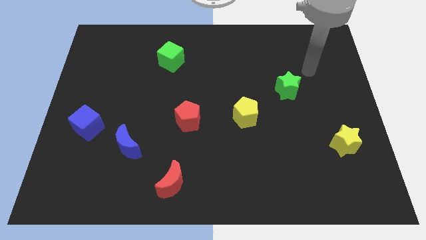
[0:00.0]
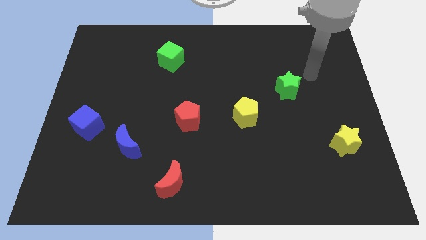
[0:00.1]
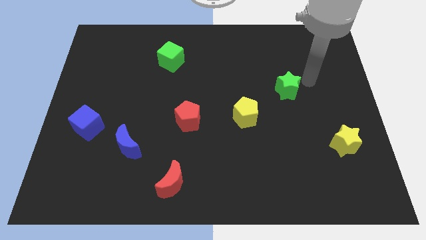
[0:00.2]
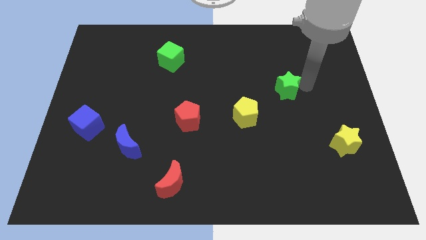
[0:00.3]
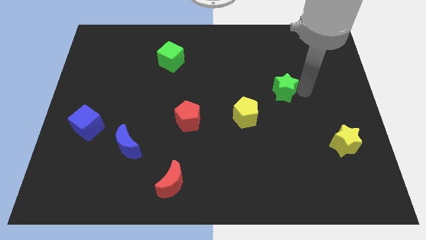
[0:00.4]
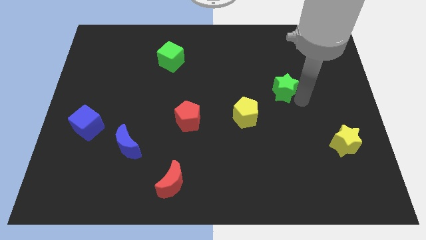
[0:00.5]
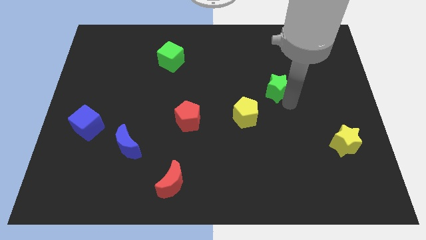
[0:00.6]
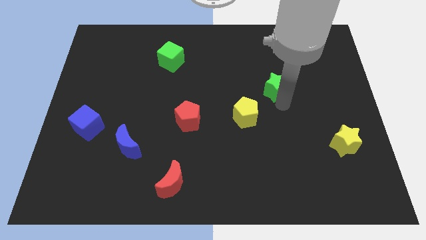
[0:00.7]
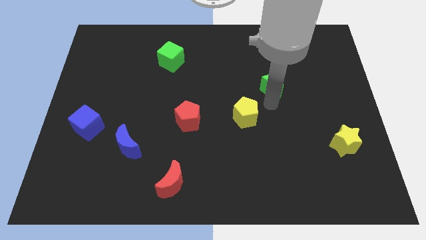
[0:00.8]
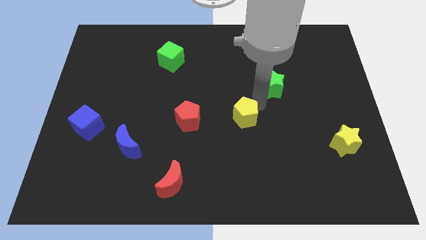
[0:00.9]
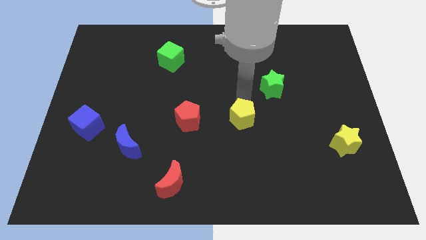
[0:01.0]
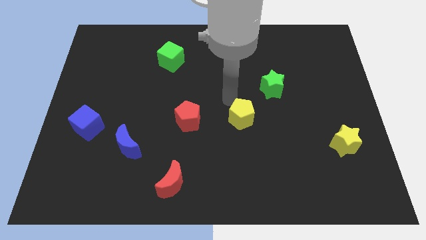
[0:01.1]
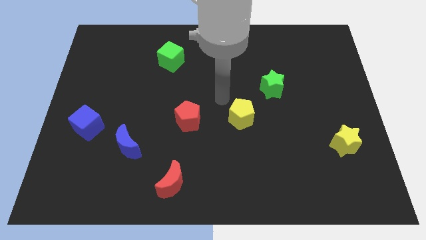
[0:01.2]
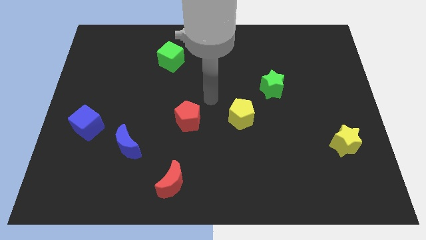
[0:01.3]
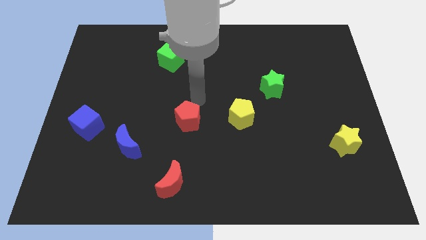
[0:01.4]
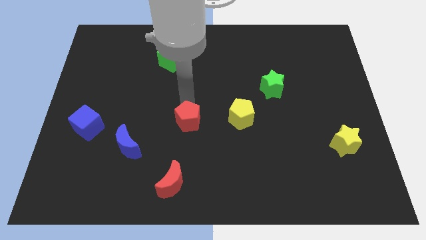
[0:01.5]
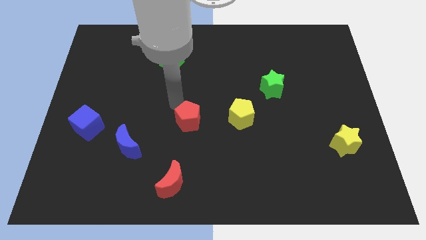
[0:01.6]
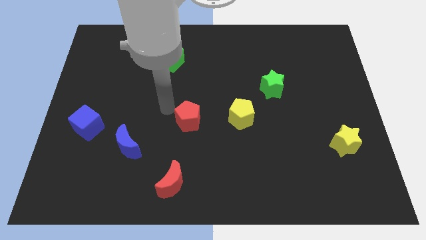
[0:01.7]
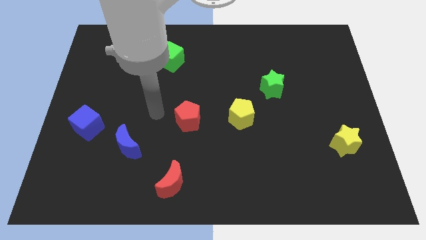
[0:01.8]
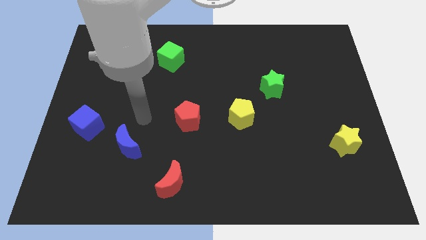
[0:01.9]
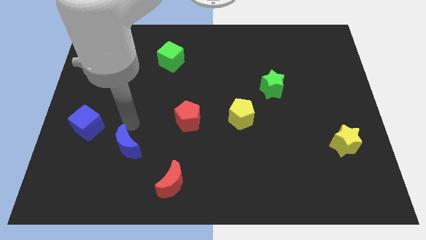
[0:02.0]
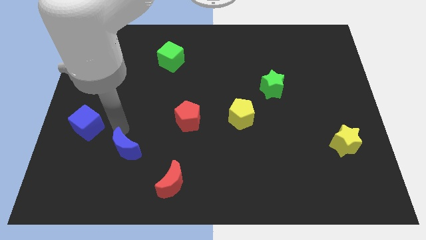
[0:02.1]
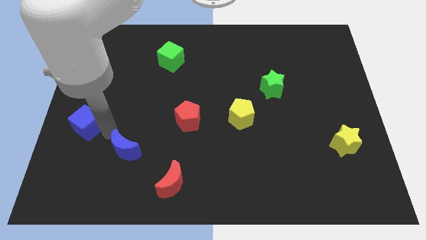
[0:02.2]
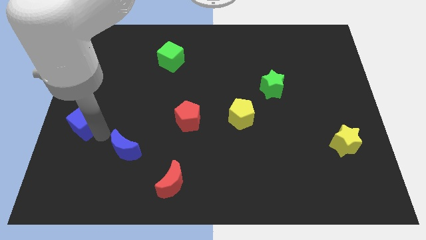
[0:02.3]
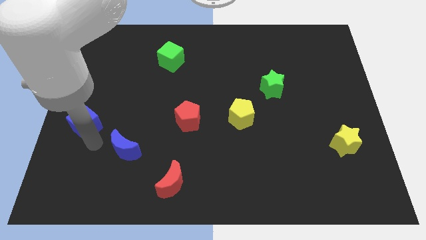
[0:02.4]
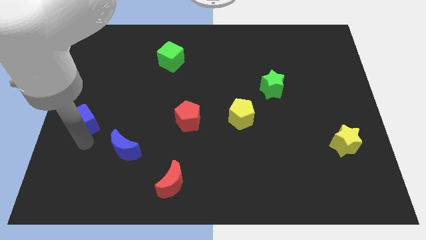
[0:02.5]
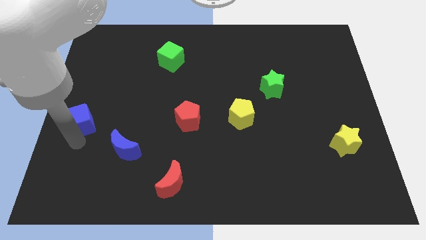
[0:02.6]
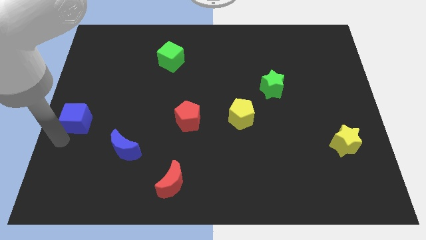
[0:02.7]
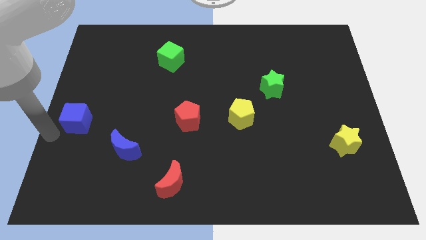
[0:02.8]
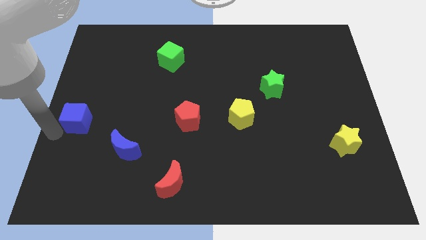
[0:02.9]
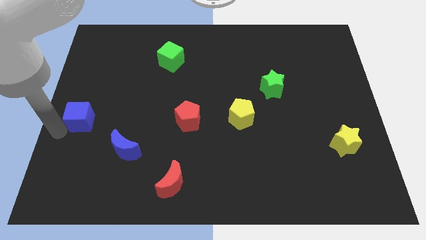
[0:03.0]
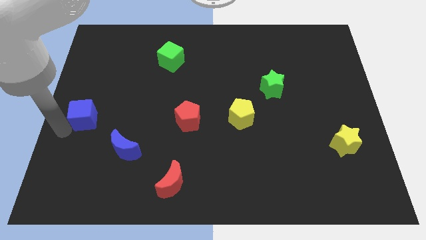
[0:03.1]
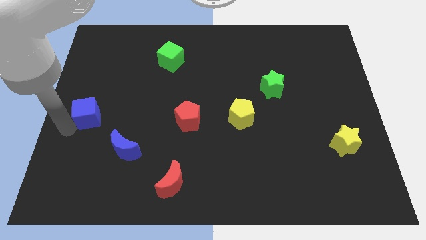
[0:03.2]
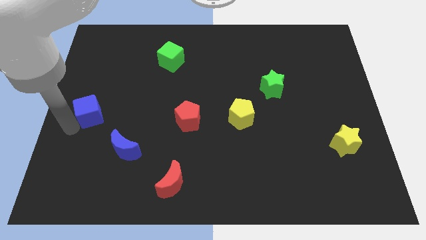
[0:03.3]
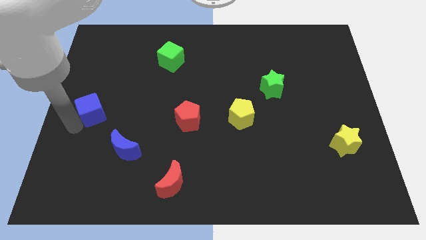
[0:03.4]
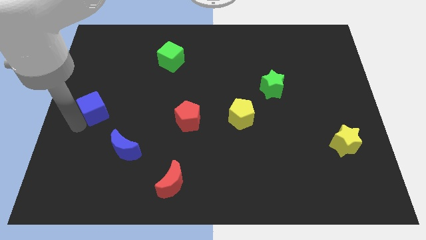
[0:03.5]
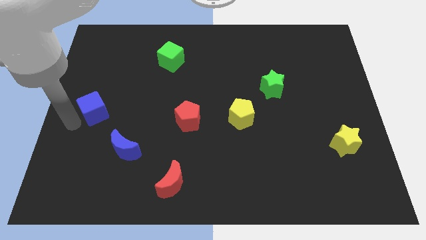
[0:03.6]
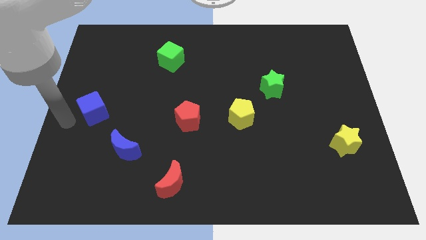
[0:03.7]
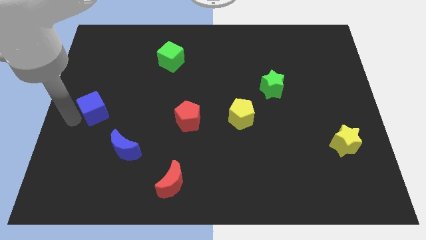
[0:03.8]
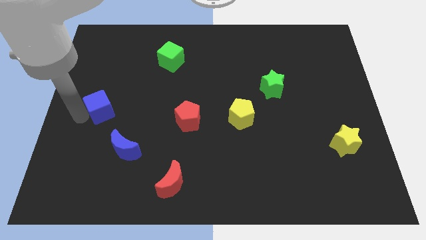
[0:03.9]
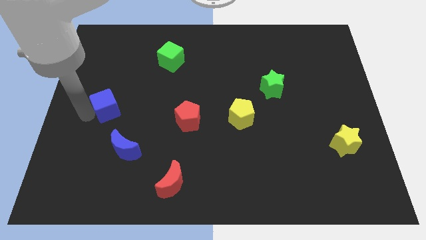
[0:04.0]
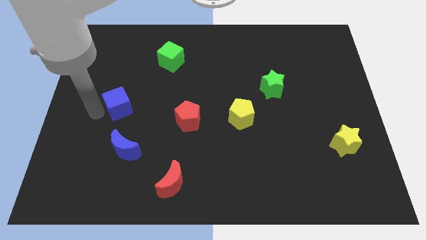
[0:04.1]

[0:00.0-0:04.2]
push the blue cube diagonally upwards and to the right a little

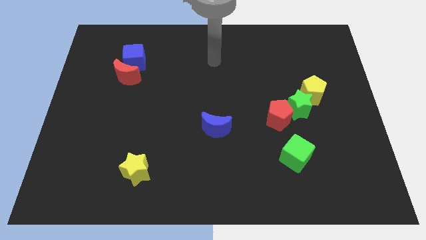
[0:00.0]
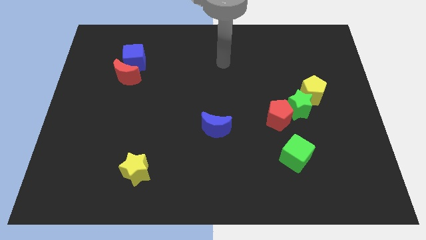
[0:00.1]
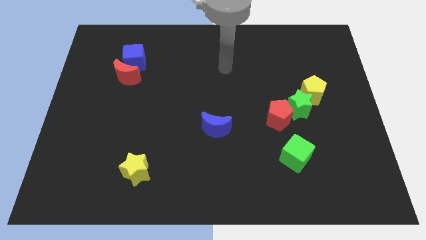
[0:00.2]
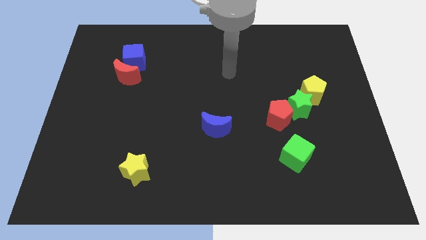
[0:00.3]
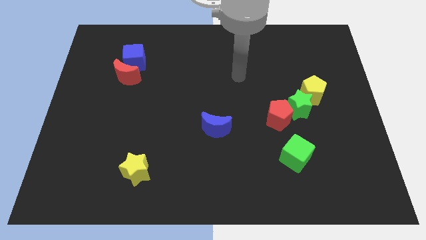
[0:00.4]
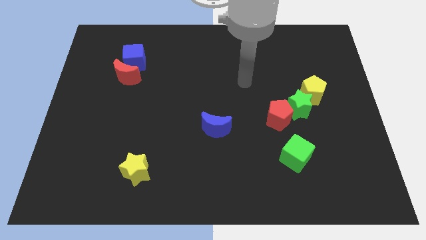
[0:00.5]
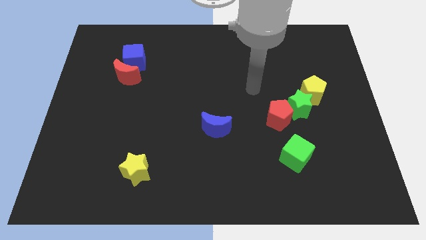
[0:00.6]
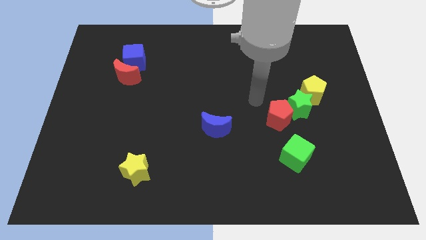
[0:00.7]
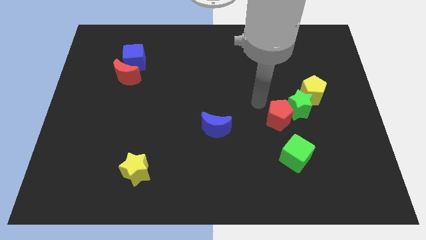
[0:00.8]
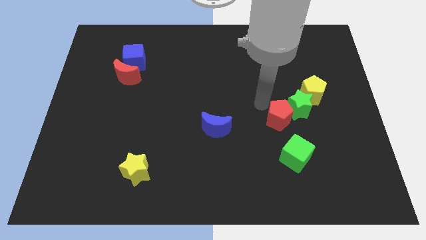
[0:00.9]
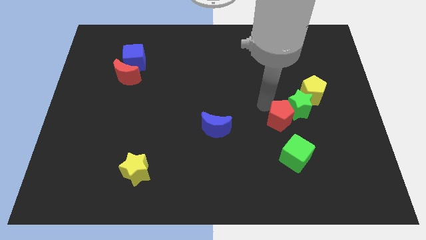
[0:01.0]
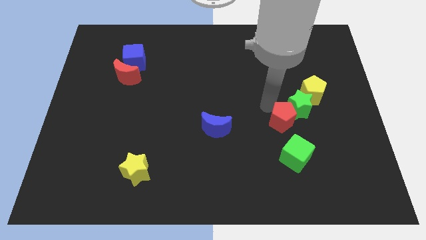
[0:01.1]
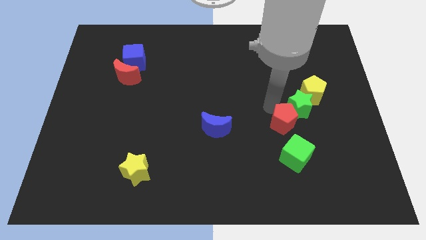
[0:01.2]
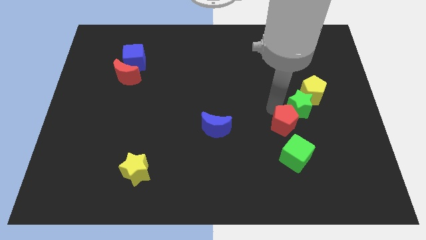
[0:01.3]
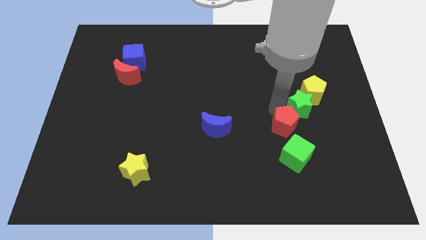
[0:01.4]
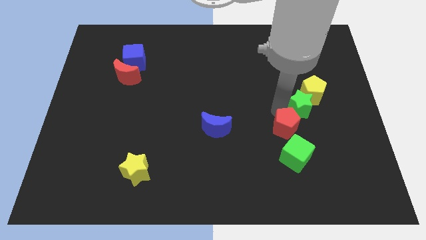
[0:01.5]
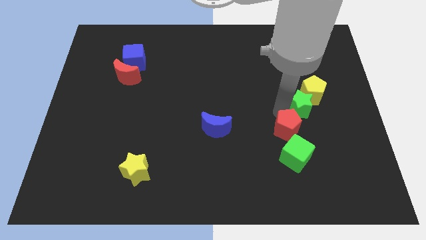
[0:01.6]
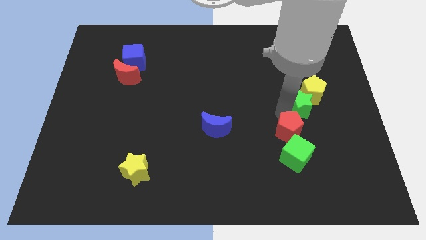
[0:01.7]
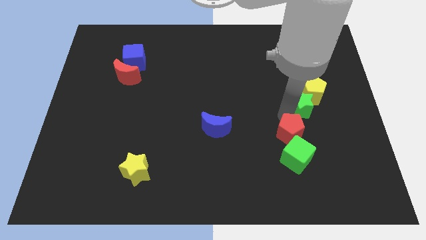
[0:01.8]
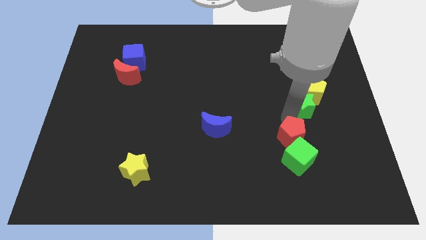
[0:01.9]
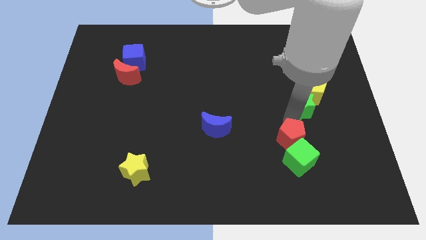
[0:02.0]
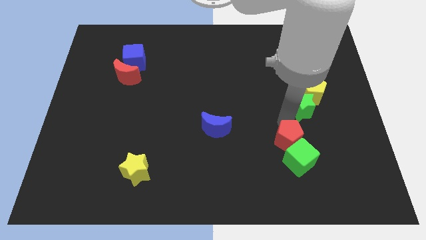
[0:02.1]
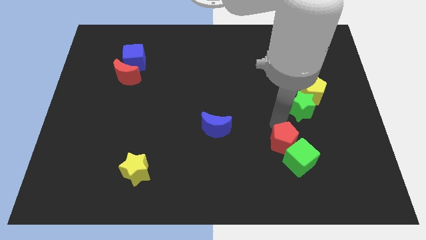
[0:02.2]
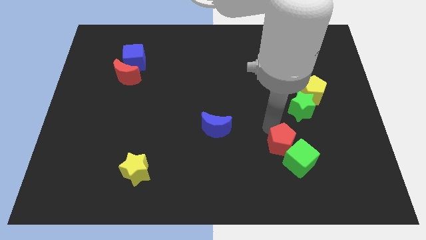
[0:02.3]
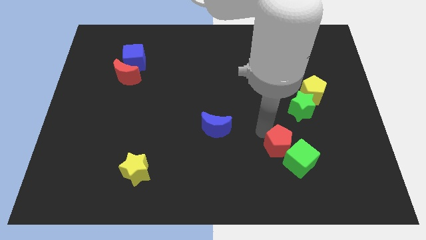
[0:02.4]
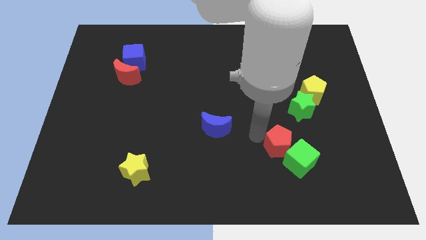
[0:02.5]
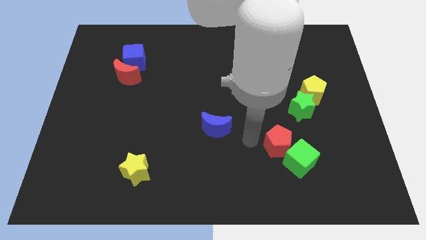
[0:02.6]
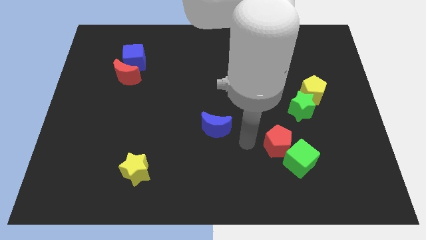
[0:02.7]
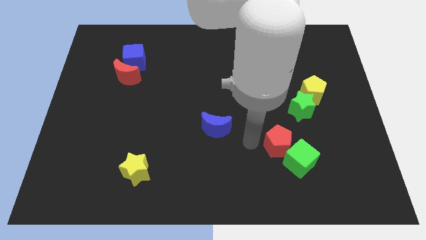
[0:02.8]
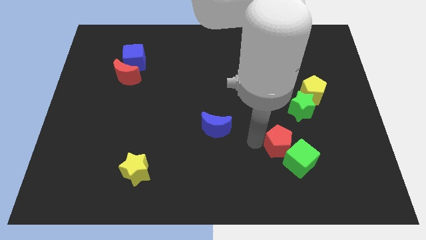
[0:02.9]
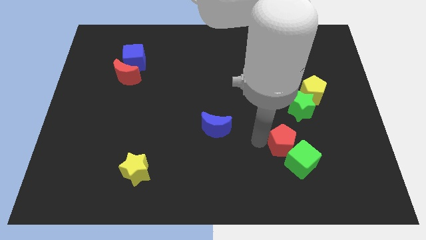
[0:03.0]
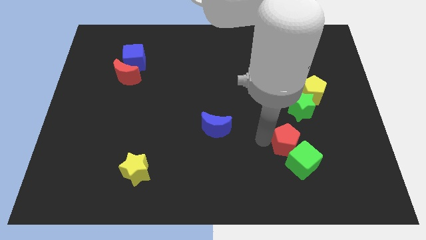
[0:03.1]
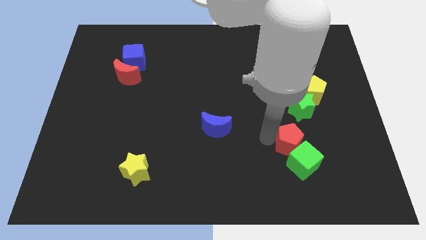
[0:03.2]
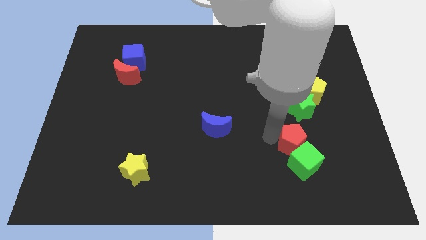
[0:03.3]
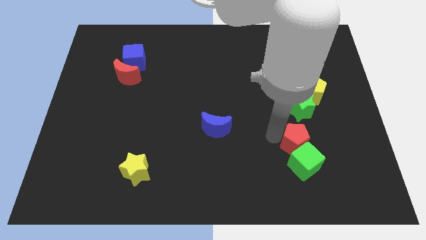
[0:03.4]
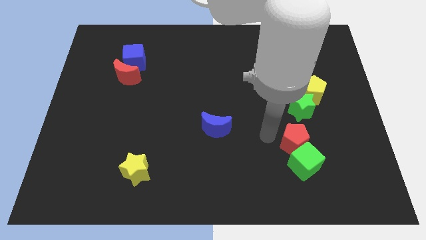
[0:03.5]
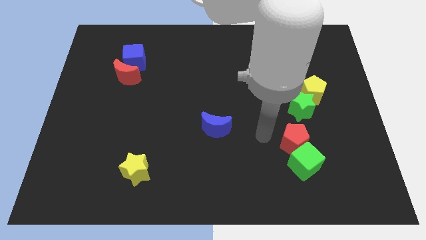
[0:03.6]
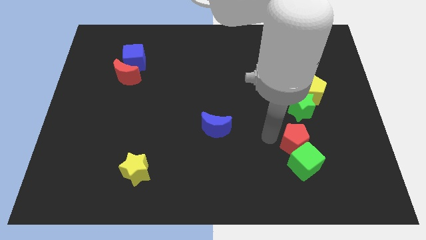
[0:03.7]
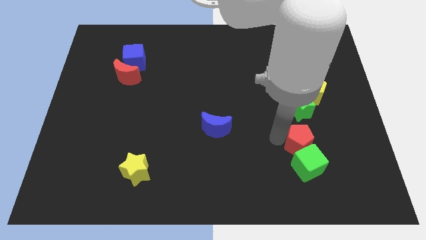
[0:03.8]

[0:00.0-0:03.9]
move the red pentagon down and right diagonally a bit

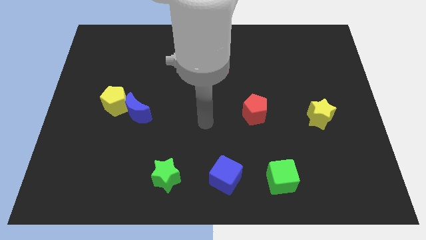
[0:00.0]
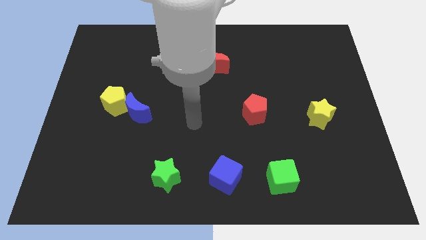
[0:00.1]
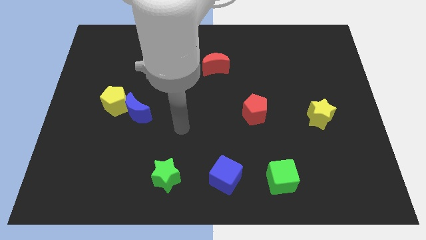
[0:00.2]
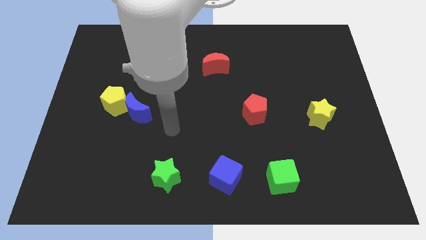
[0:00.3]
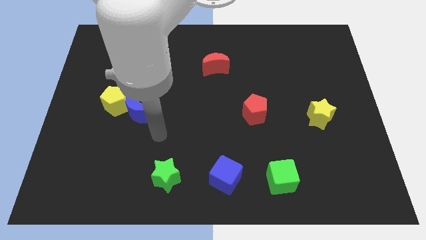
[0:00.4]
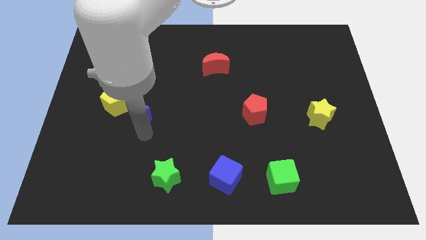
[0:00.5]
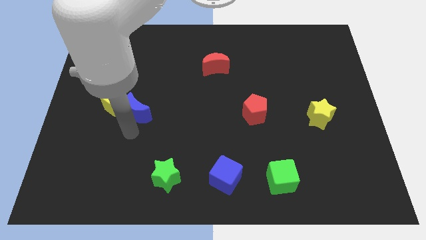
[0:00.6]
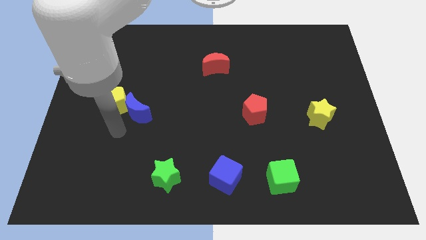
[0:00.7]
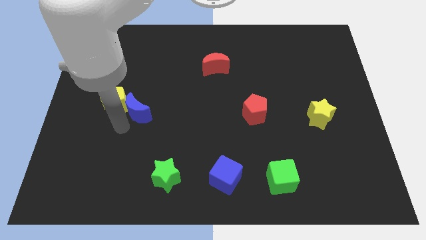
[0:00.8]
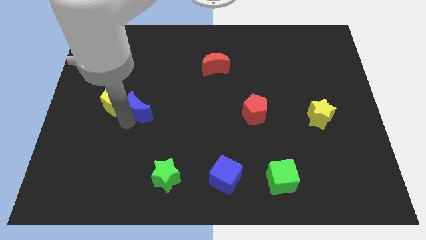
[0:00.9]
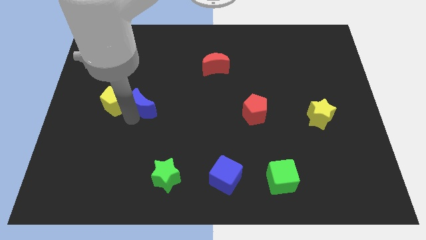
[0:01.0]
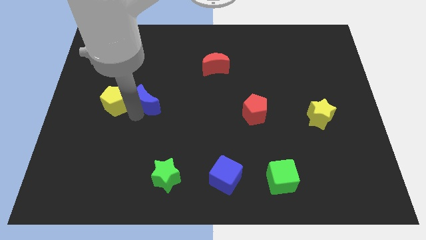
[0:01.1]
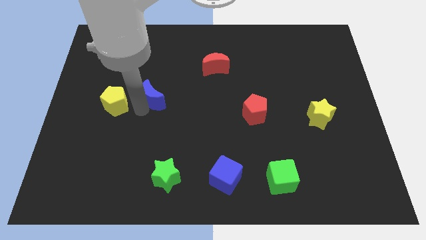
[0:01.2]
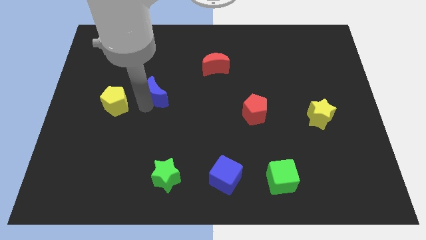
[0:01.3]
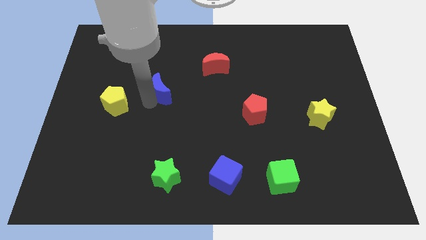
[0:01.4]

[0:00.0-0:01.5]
push the blue moon diagonally upwards and to the right a little bit
